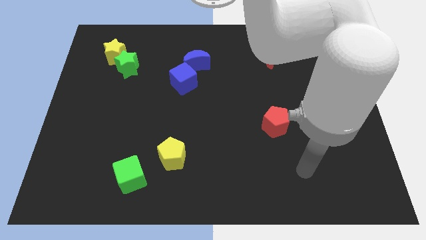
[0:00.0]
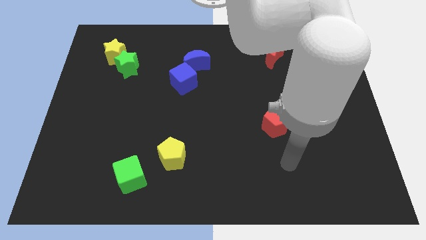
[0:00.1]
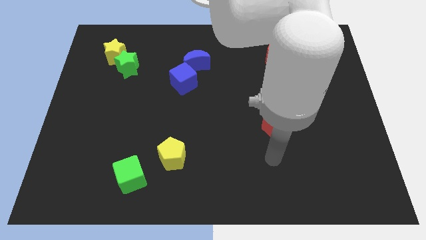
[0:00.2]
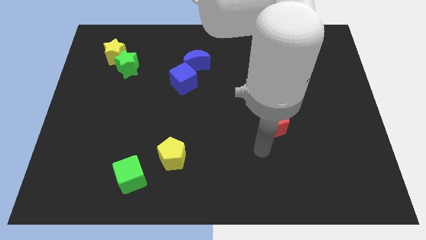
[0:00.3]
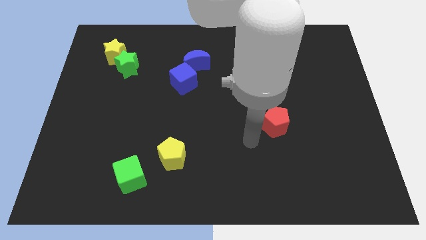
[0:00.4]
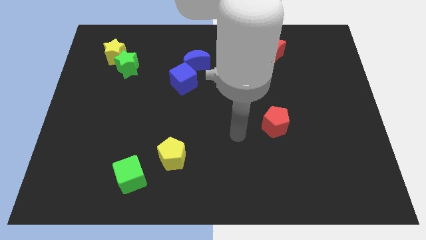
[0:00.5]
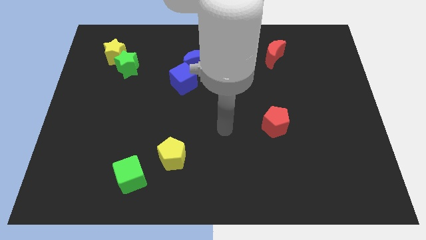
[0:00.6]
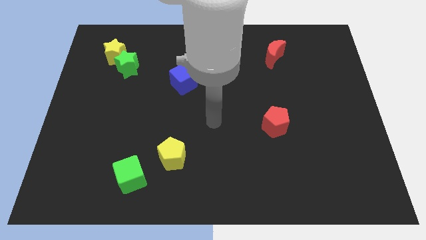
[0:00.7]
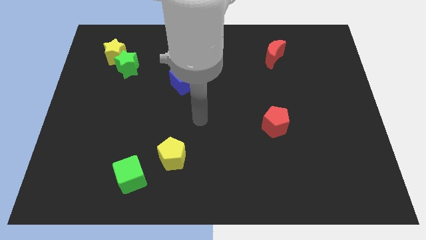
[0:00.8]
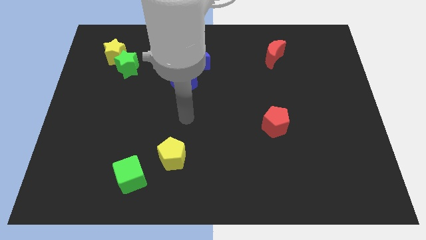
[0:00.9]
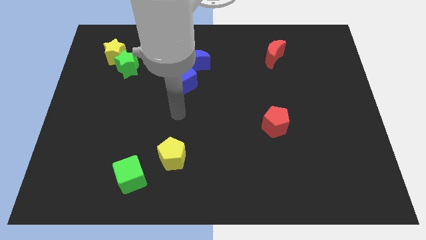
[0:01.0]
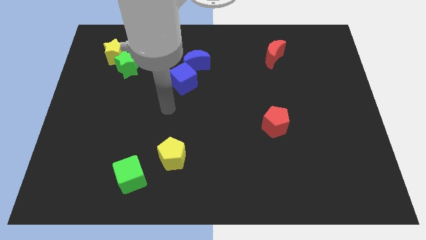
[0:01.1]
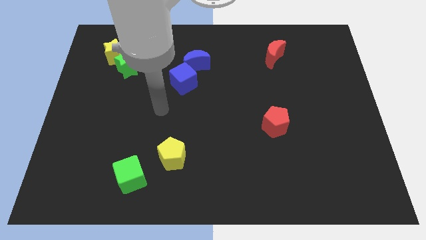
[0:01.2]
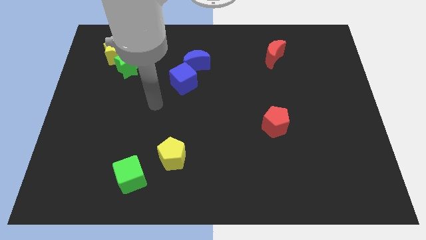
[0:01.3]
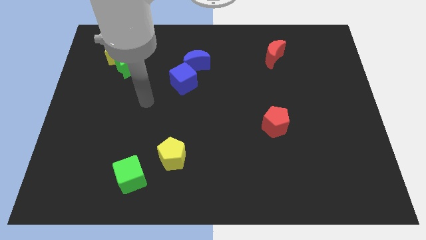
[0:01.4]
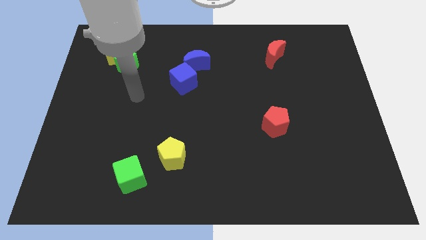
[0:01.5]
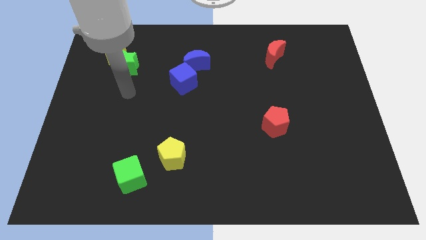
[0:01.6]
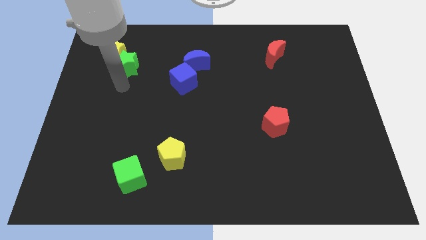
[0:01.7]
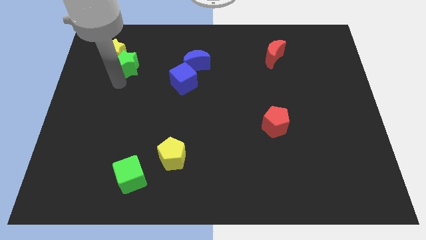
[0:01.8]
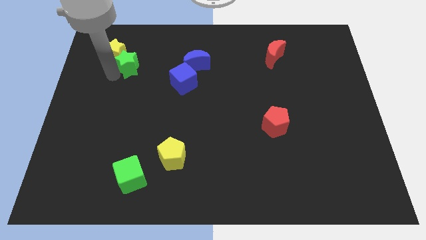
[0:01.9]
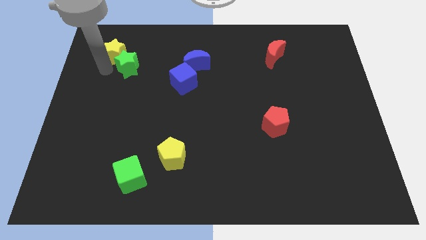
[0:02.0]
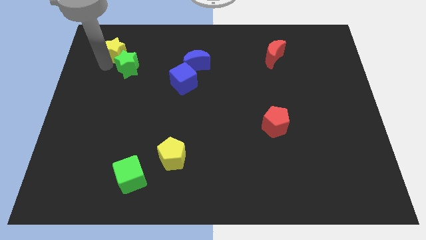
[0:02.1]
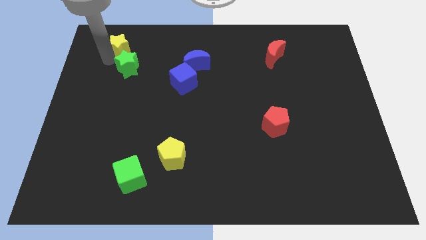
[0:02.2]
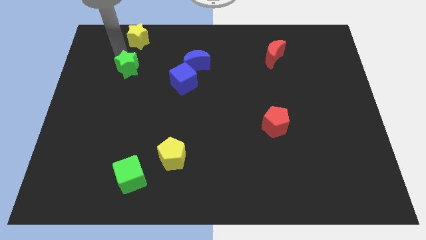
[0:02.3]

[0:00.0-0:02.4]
pull the green star apart from the yellow star

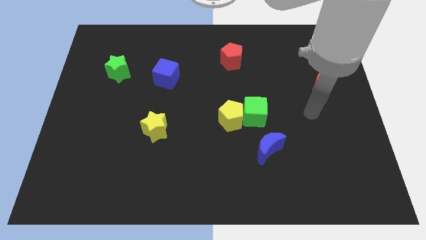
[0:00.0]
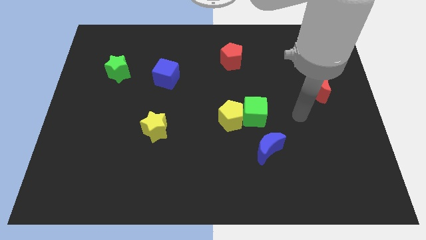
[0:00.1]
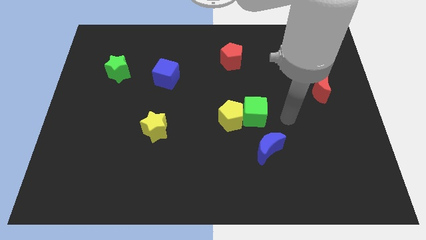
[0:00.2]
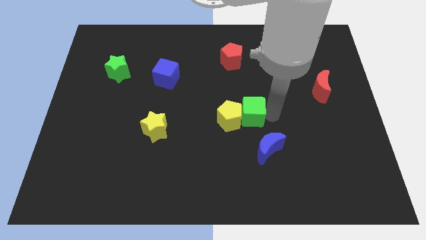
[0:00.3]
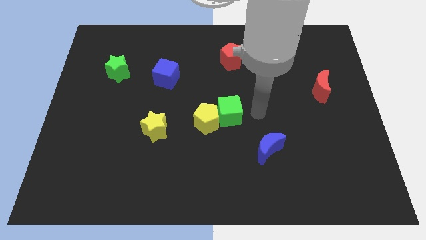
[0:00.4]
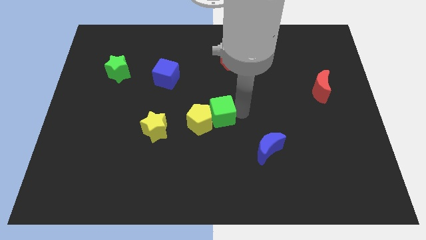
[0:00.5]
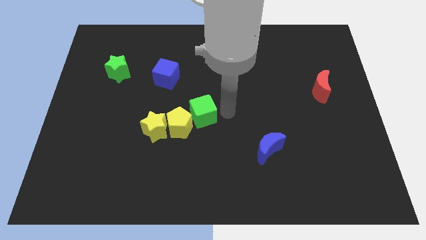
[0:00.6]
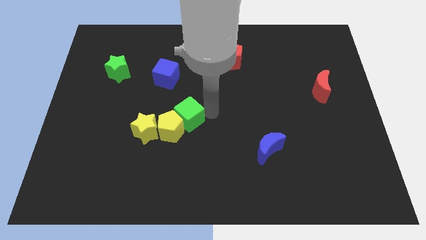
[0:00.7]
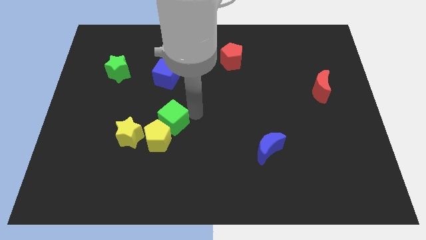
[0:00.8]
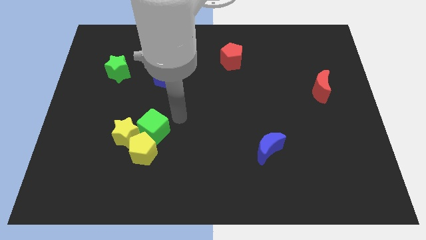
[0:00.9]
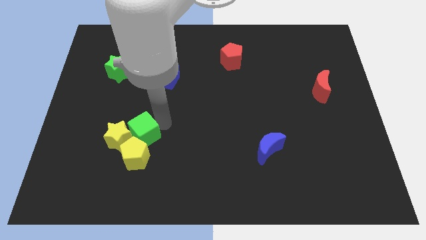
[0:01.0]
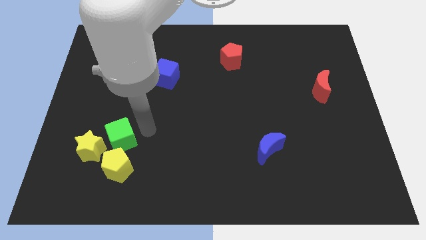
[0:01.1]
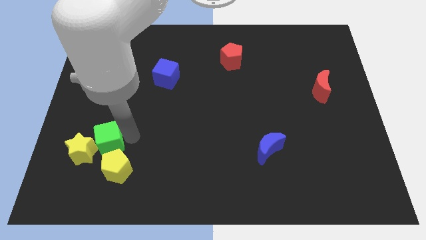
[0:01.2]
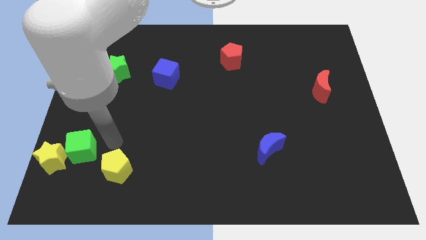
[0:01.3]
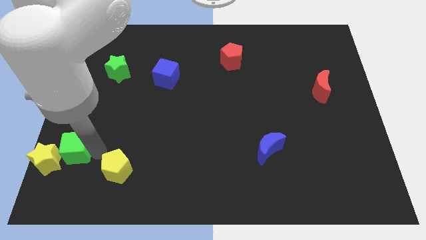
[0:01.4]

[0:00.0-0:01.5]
move the yellow pentagon away from the green cube

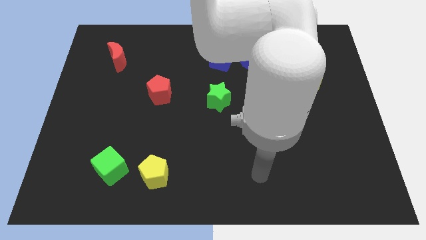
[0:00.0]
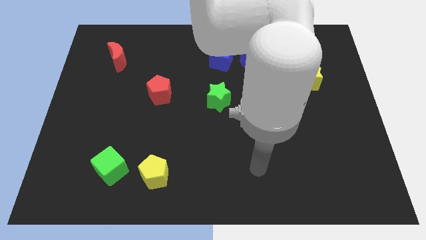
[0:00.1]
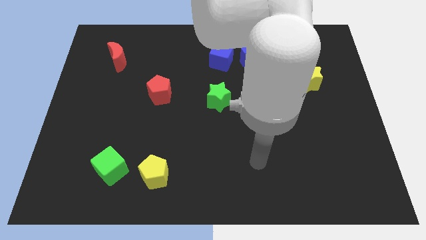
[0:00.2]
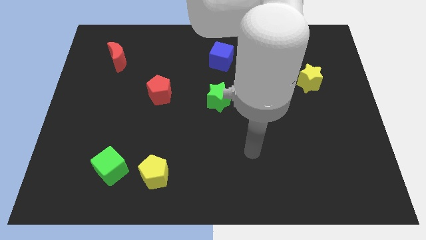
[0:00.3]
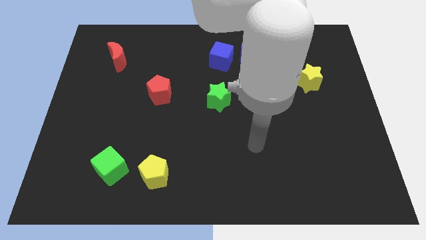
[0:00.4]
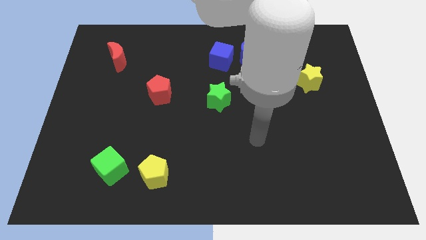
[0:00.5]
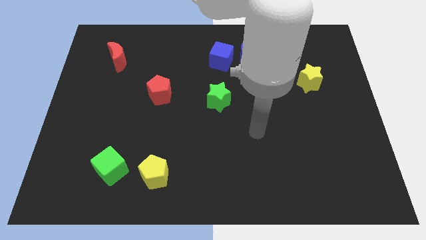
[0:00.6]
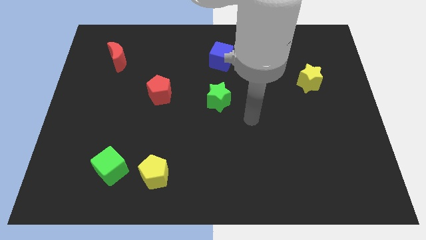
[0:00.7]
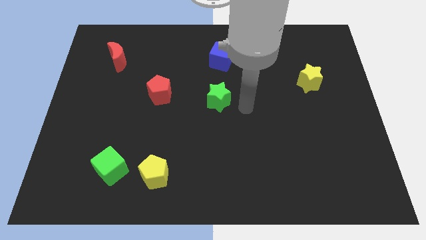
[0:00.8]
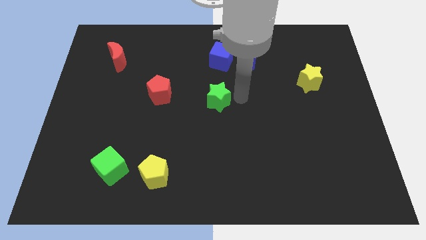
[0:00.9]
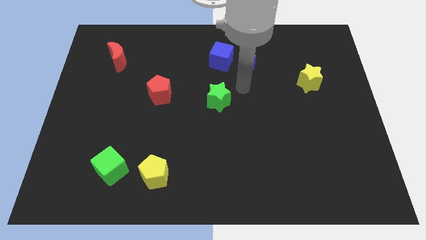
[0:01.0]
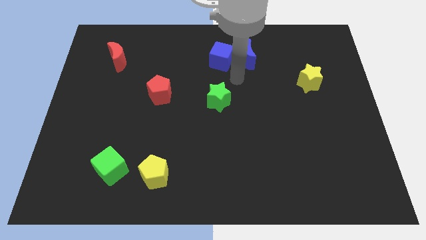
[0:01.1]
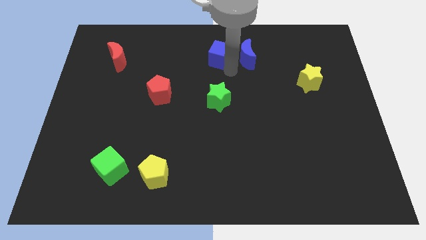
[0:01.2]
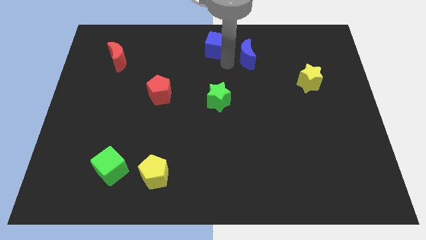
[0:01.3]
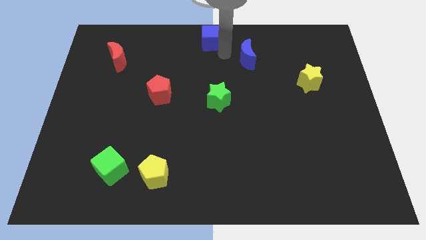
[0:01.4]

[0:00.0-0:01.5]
separate the blue moon from the blue cube

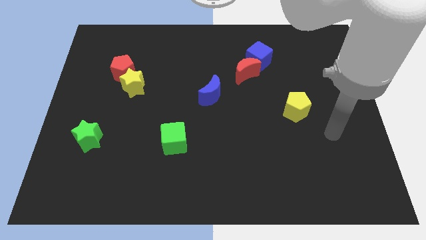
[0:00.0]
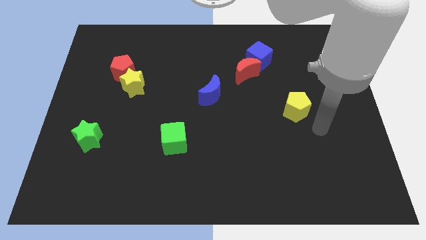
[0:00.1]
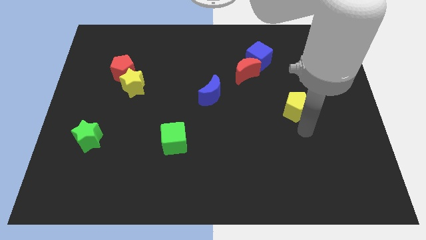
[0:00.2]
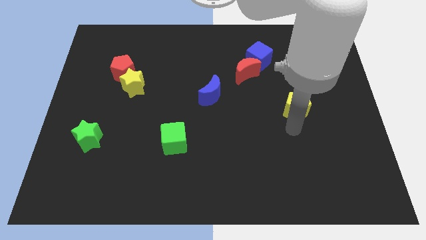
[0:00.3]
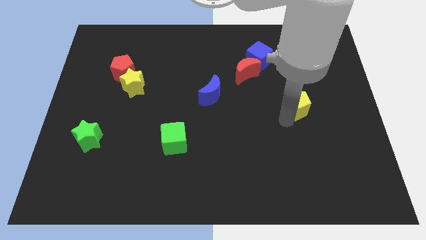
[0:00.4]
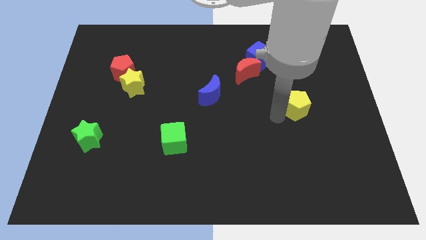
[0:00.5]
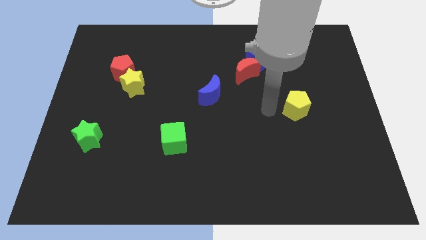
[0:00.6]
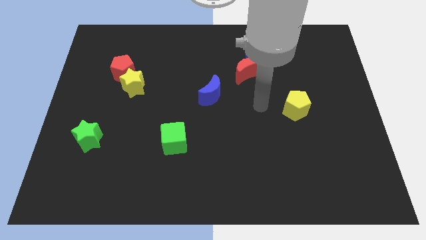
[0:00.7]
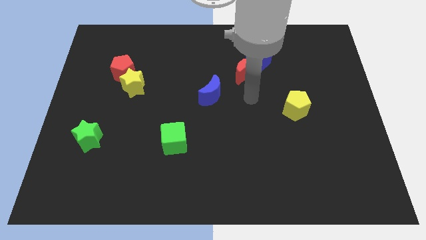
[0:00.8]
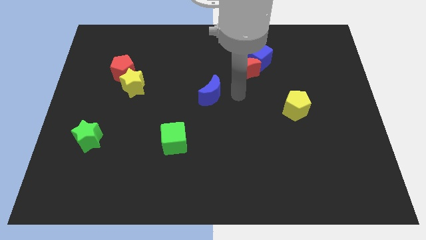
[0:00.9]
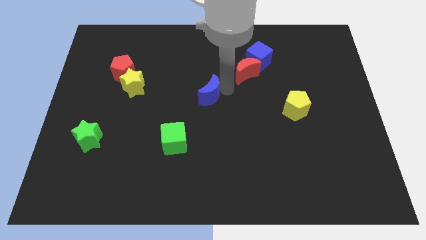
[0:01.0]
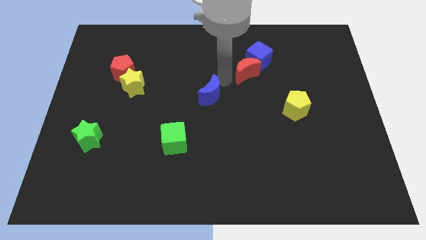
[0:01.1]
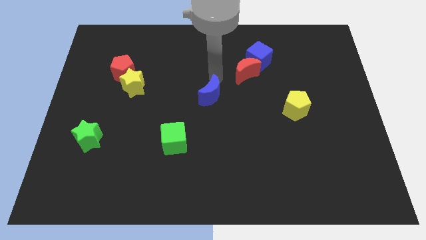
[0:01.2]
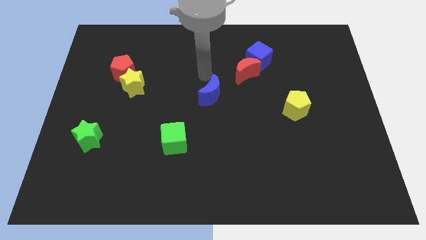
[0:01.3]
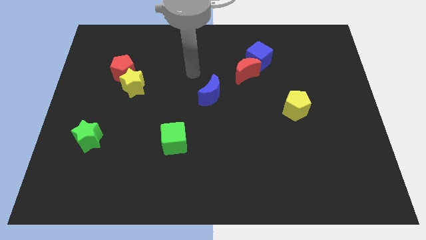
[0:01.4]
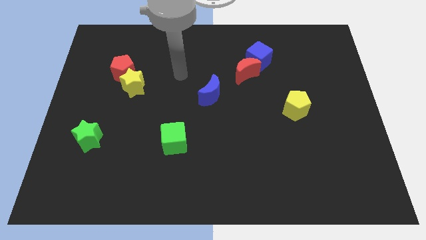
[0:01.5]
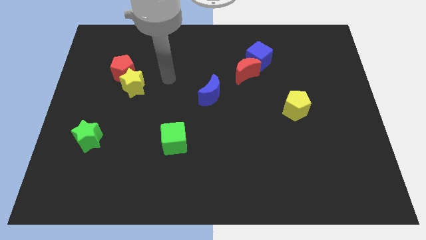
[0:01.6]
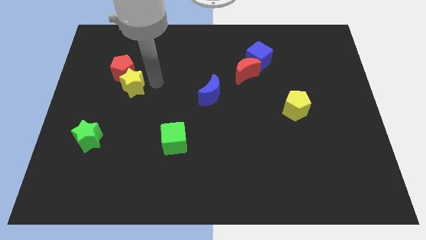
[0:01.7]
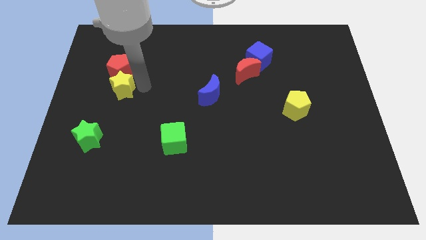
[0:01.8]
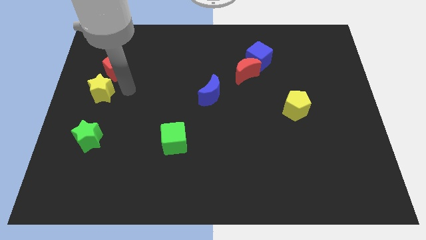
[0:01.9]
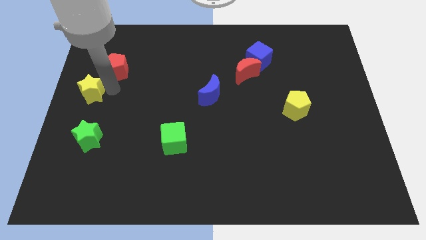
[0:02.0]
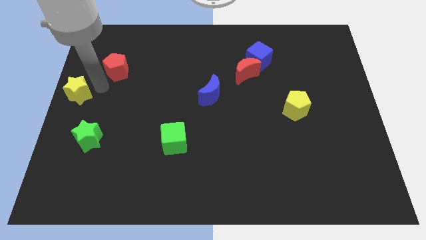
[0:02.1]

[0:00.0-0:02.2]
move the red pentagon away from the yellow star

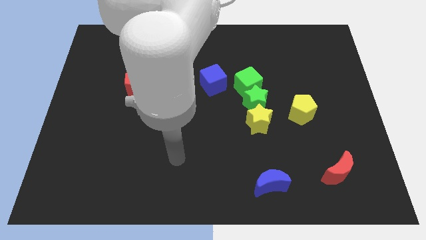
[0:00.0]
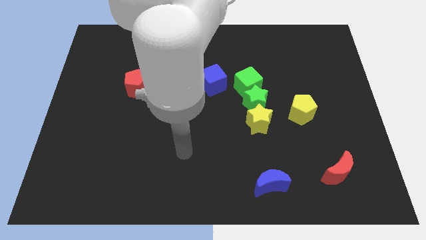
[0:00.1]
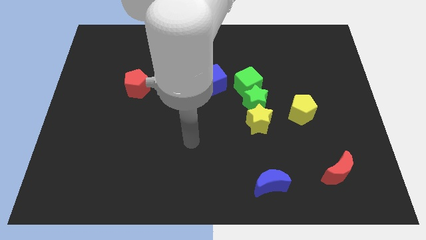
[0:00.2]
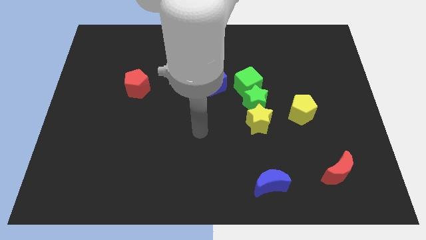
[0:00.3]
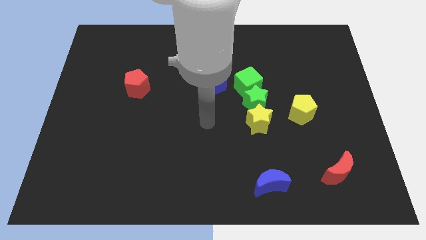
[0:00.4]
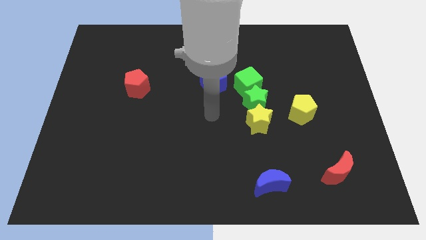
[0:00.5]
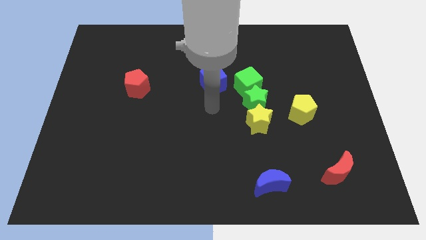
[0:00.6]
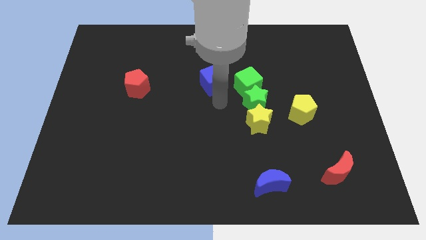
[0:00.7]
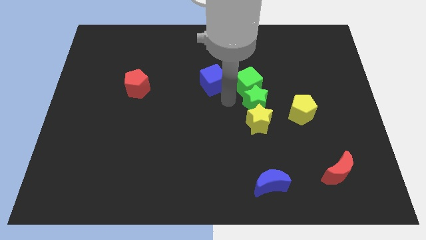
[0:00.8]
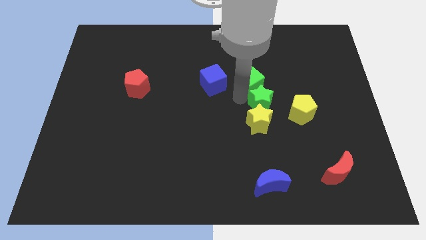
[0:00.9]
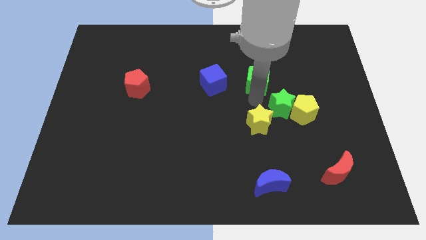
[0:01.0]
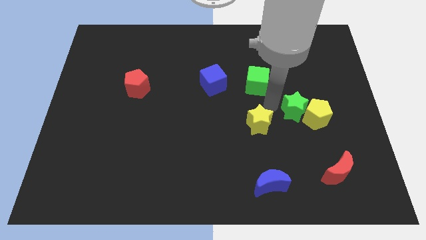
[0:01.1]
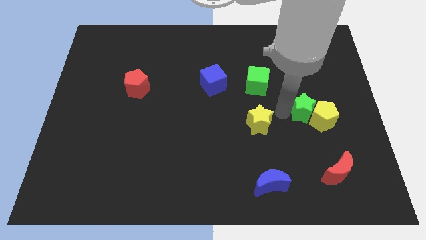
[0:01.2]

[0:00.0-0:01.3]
move the yellow star away from the green star

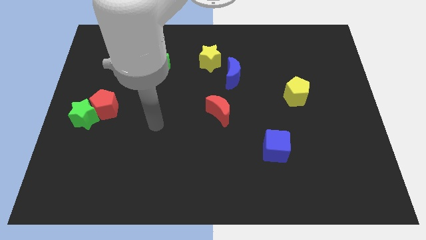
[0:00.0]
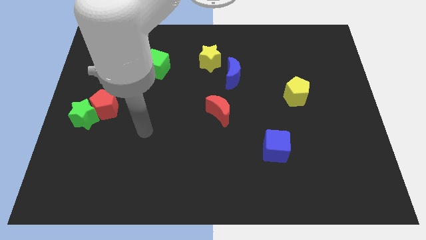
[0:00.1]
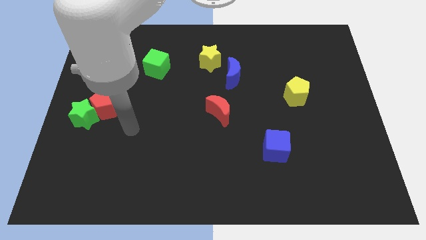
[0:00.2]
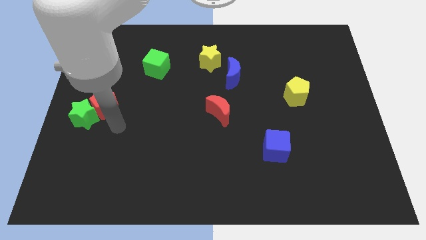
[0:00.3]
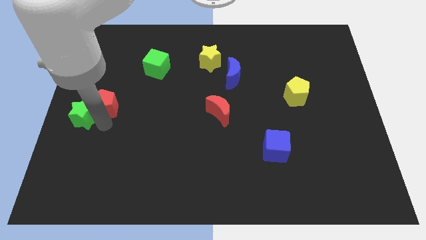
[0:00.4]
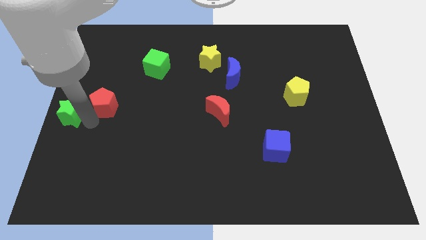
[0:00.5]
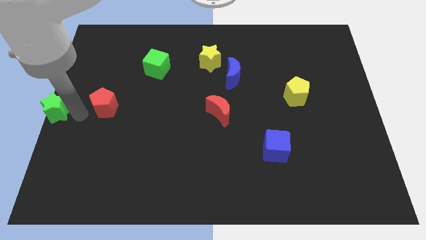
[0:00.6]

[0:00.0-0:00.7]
move the red pentagon away from the green star
